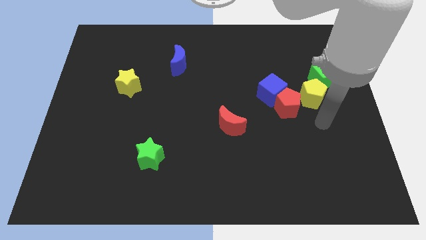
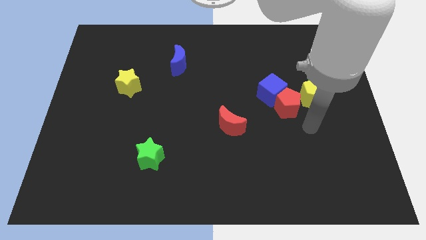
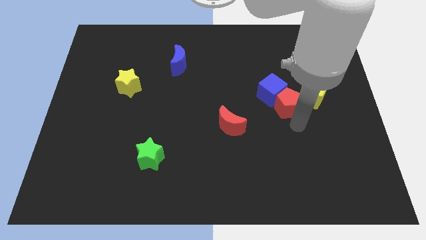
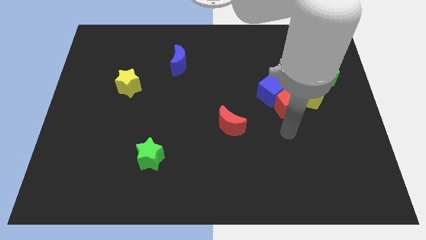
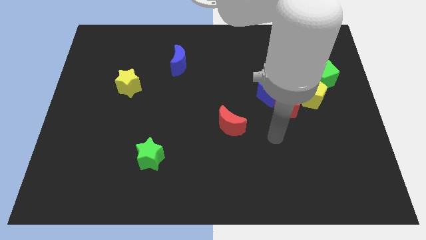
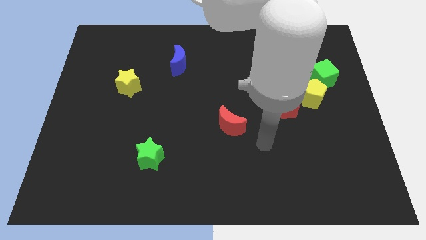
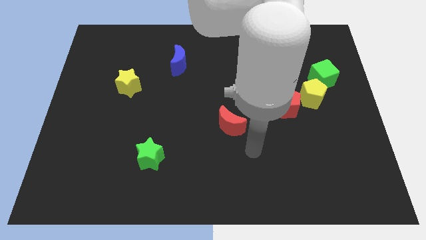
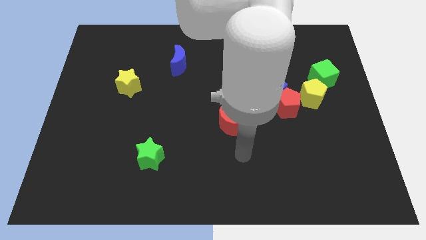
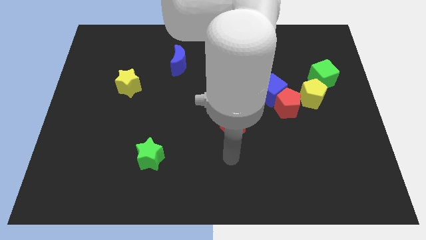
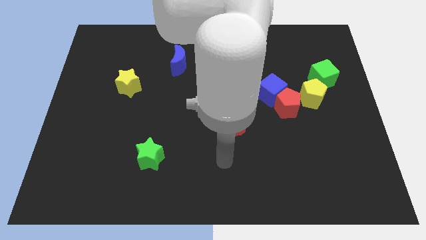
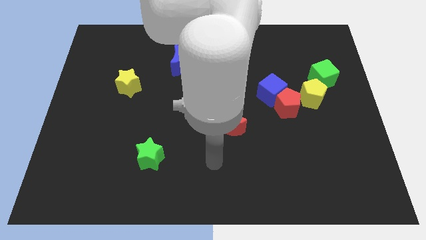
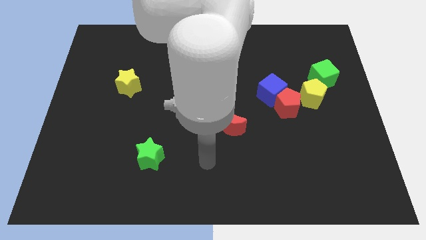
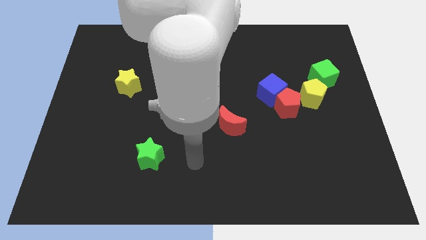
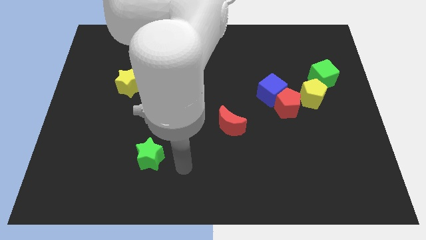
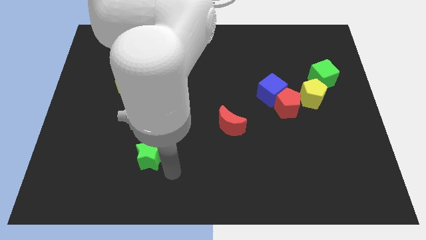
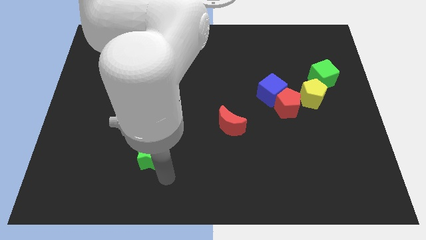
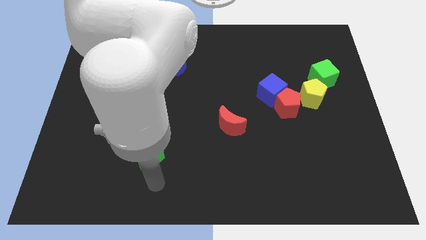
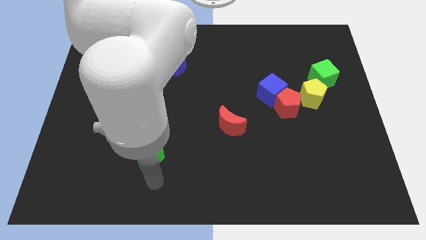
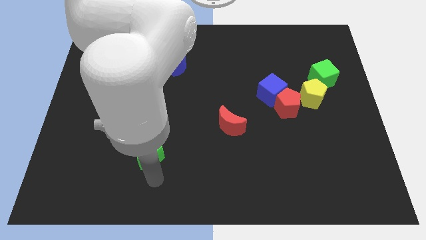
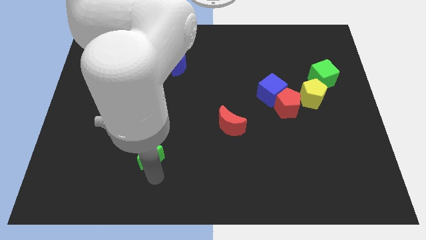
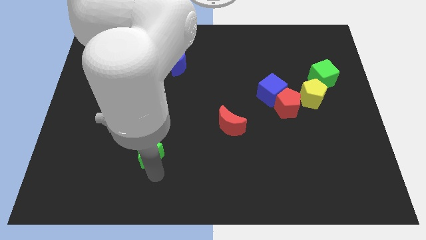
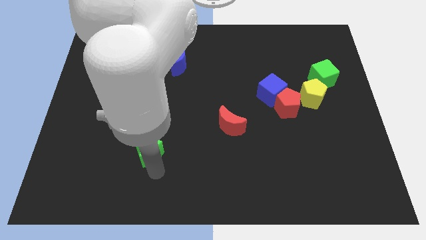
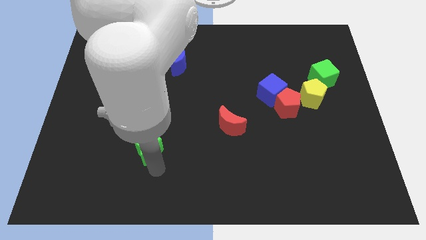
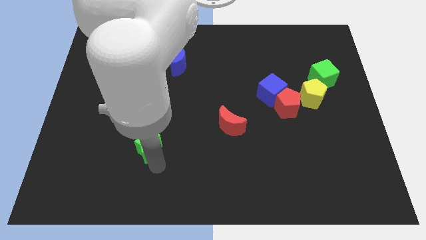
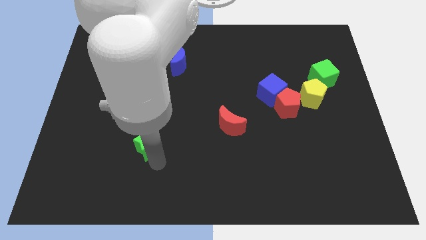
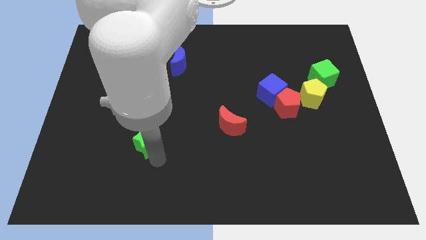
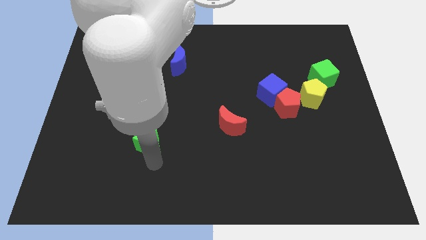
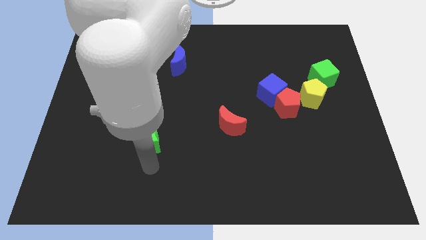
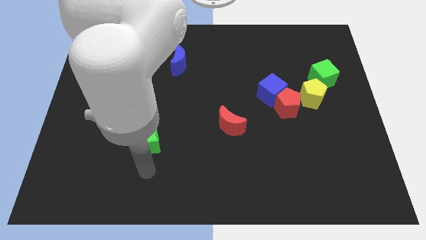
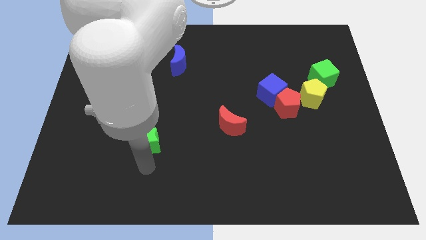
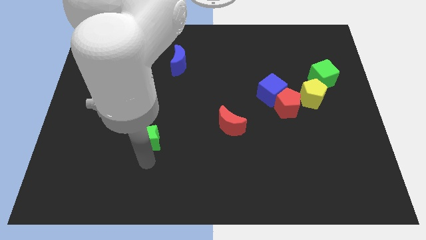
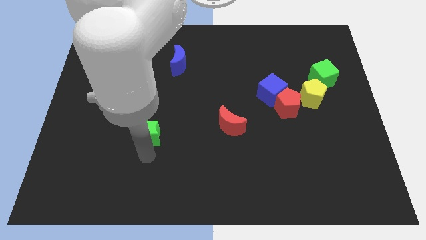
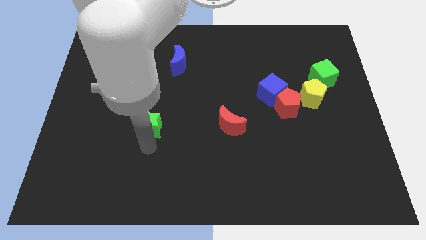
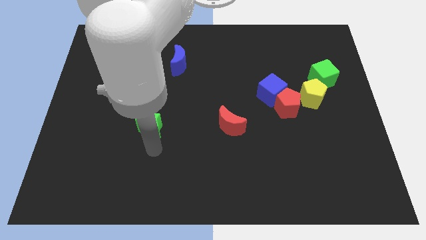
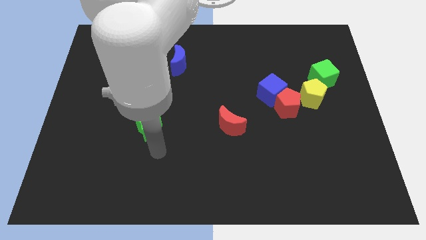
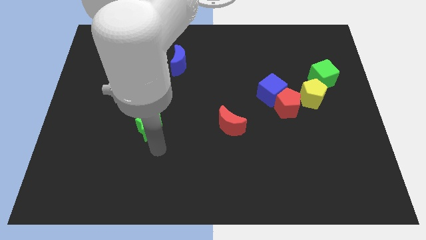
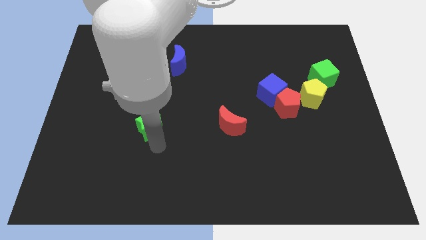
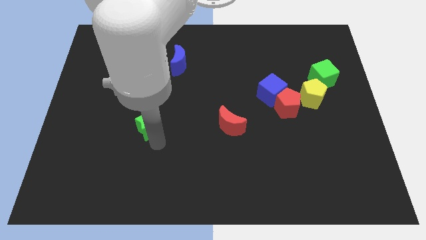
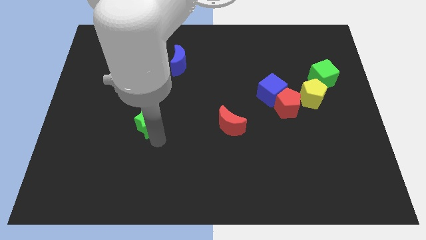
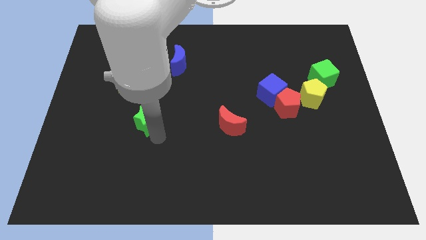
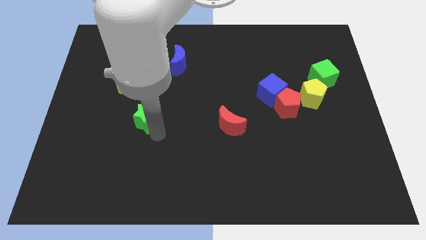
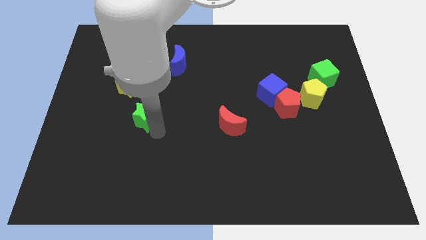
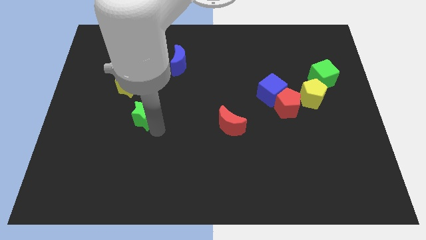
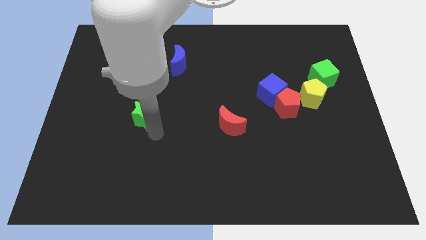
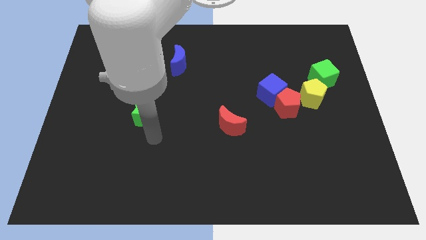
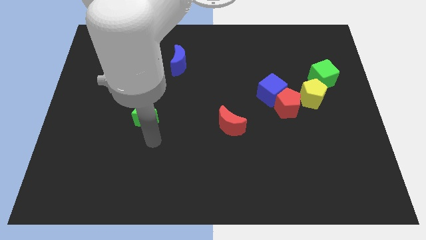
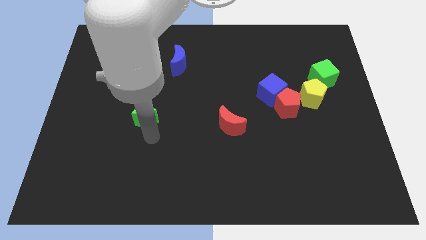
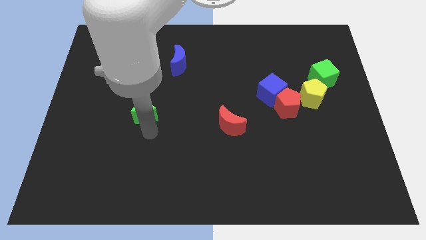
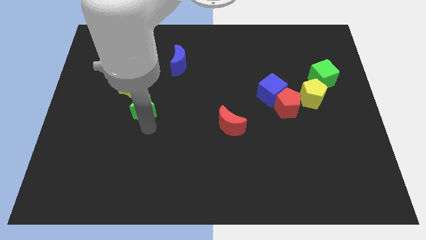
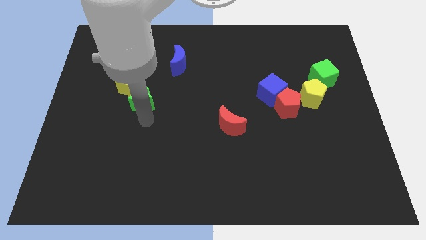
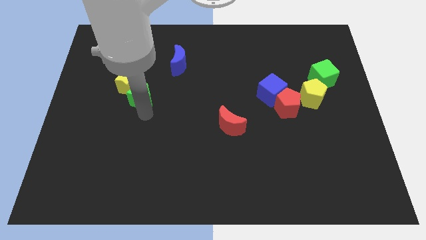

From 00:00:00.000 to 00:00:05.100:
put the green star to the yellow star

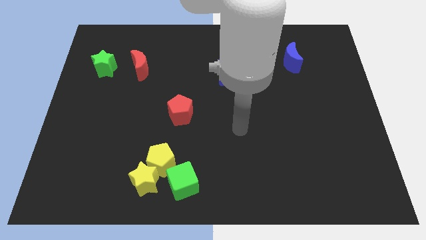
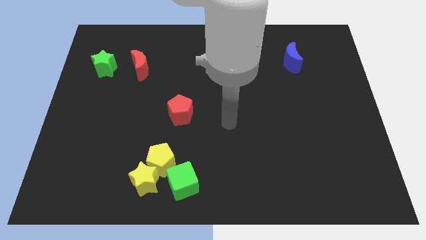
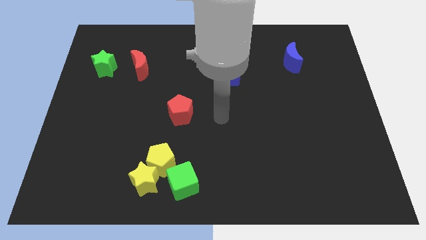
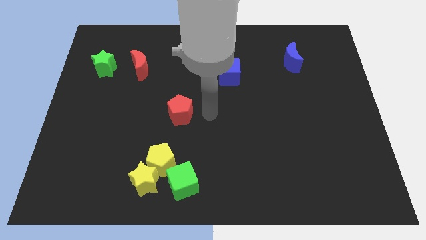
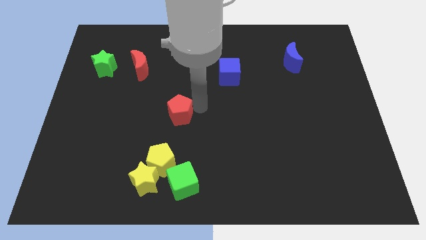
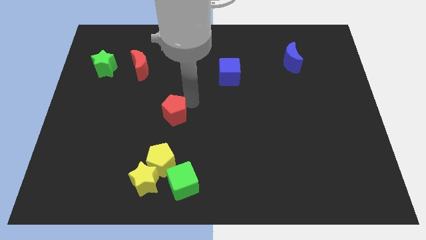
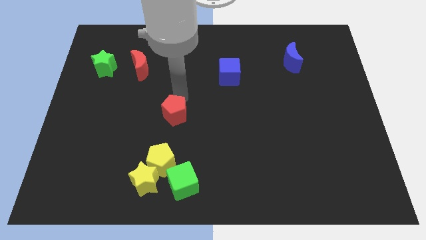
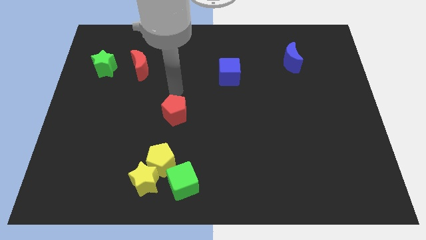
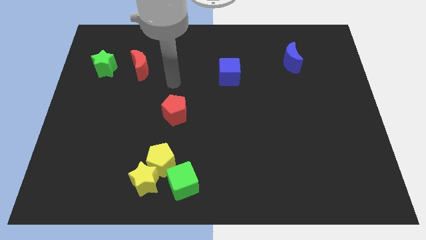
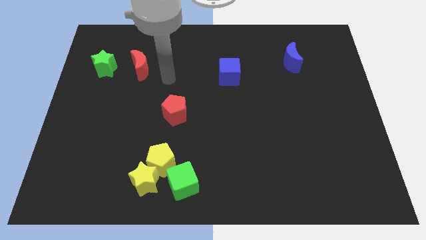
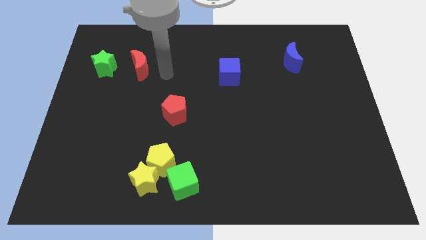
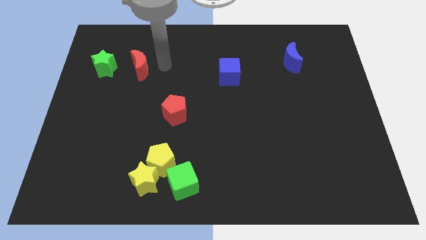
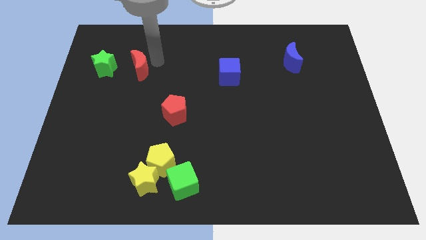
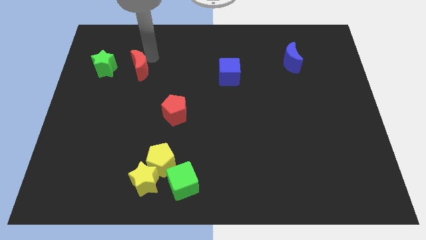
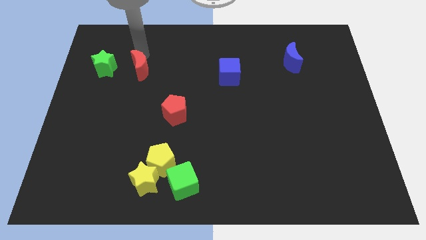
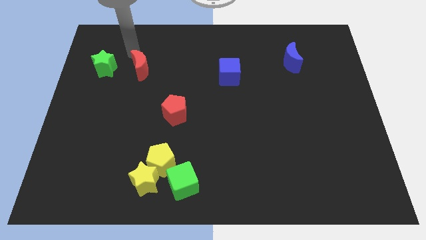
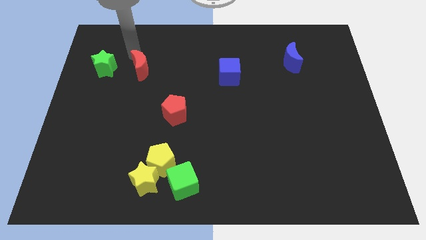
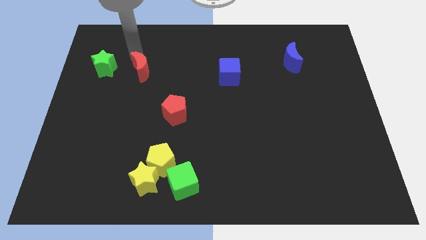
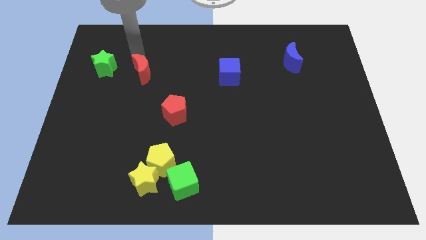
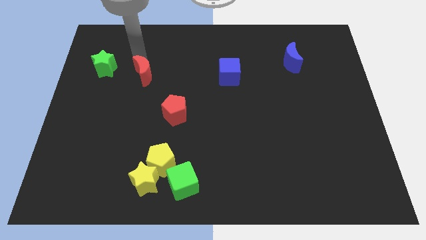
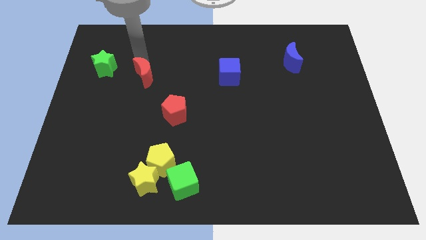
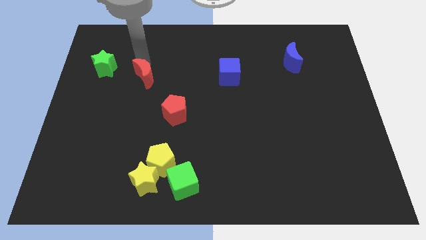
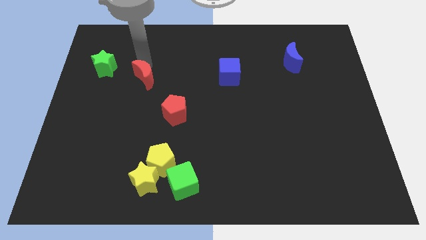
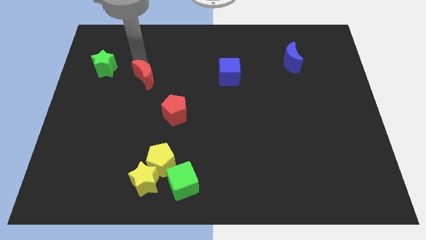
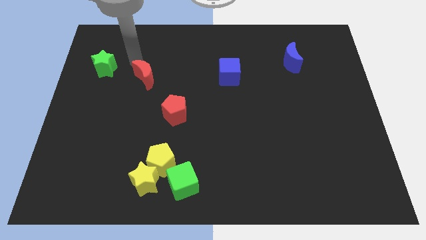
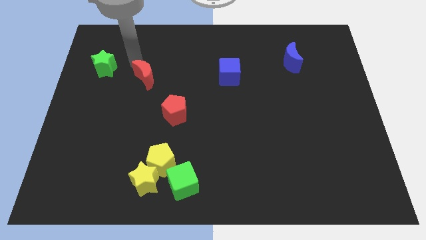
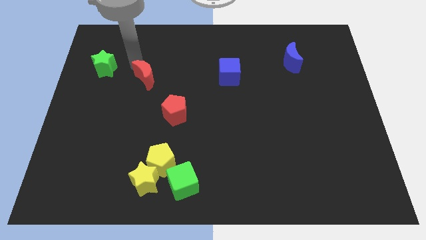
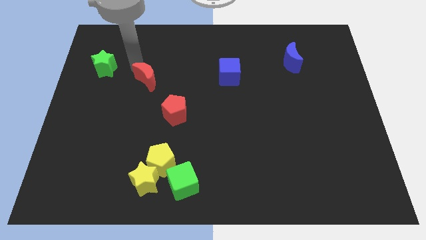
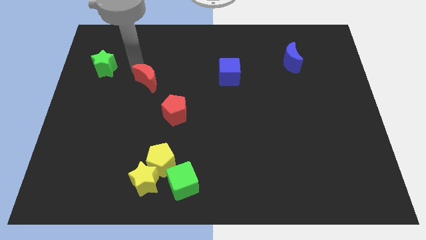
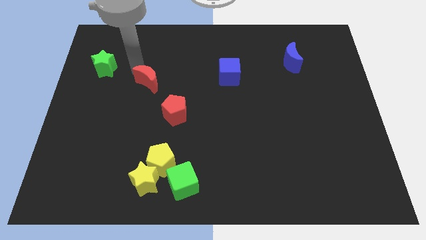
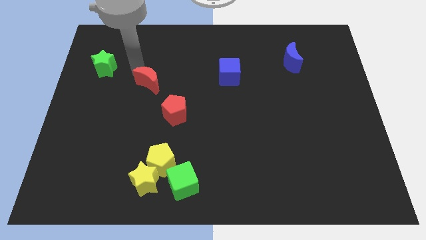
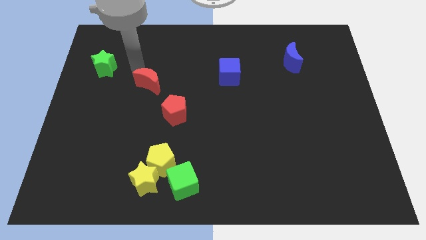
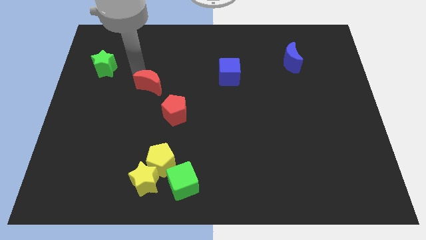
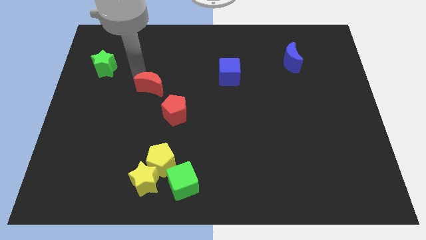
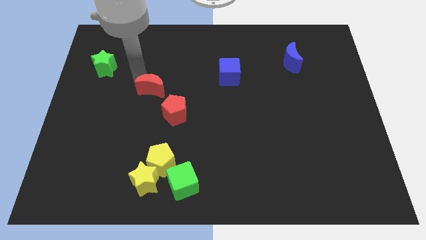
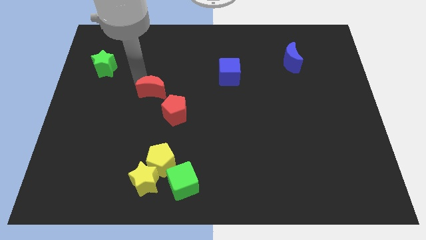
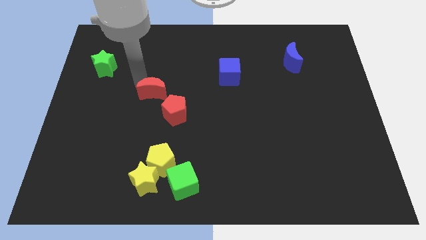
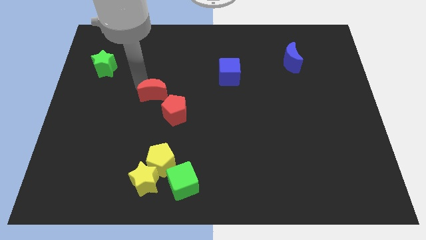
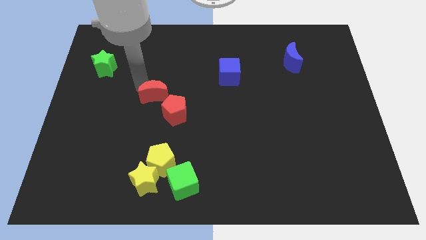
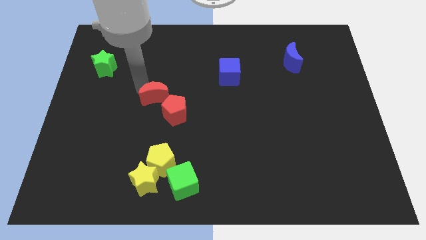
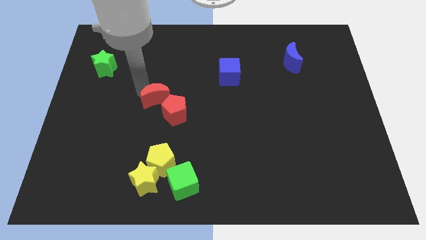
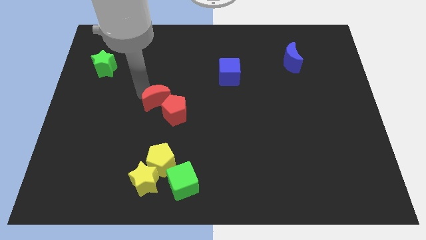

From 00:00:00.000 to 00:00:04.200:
move the red moon to the red pentagon
